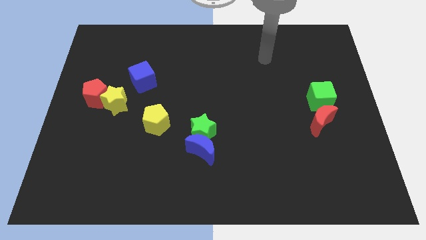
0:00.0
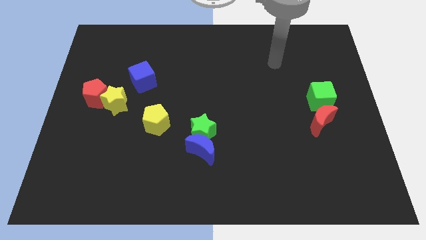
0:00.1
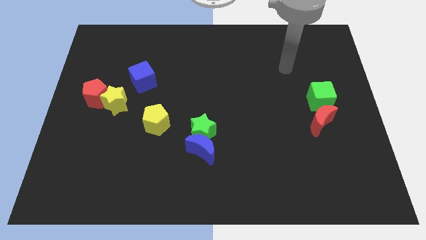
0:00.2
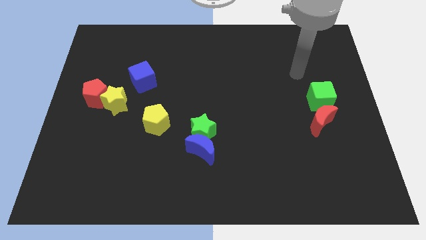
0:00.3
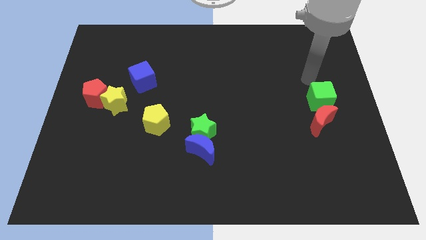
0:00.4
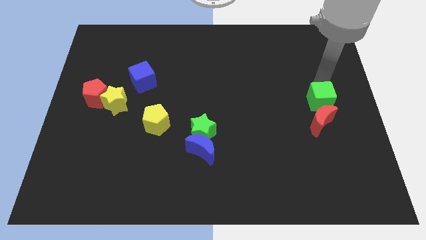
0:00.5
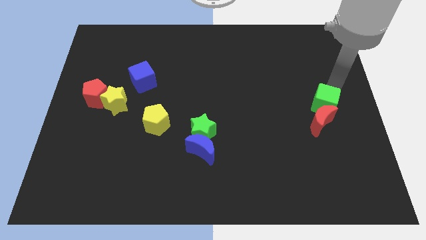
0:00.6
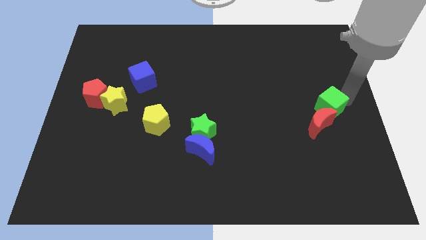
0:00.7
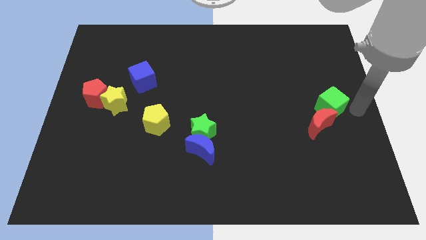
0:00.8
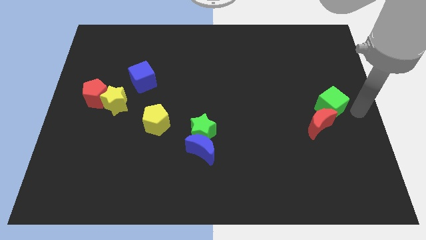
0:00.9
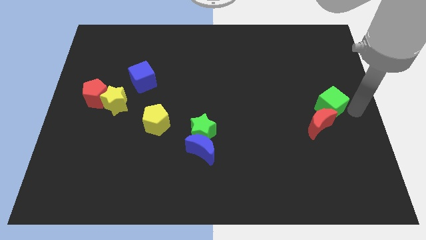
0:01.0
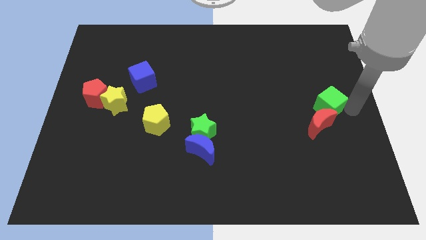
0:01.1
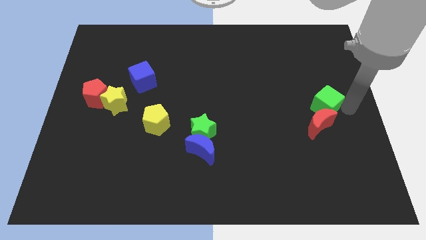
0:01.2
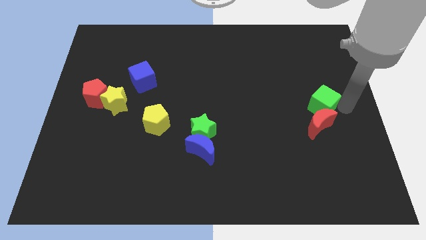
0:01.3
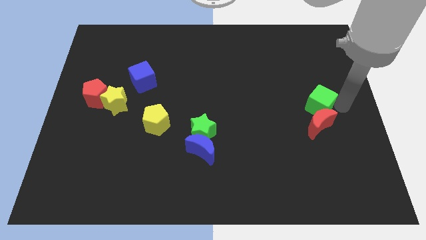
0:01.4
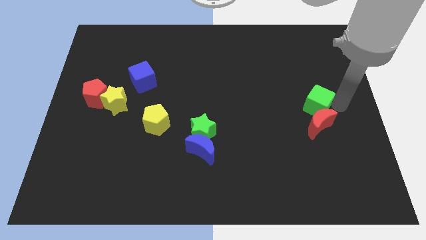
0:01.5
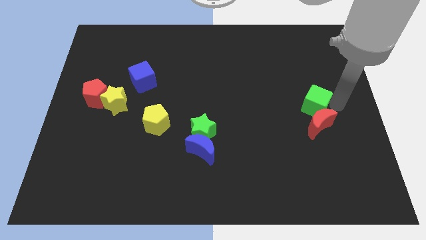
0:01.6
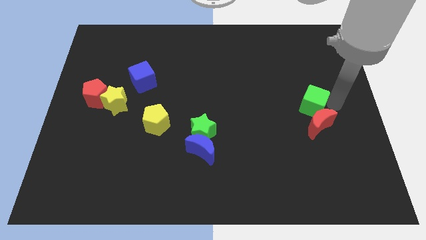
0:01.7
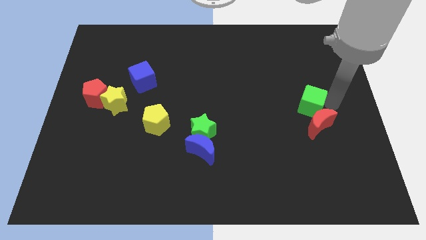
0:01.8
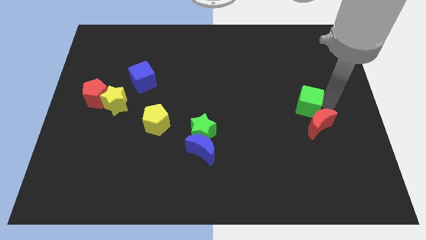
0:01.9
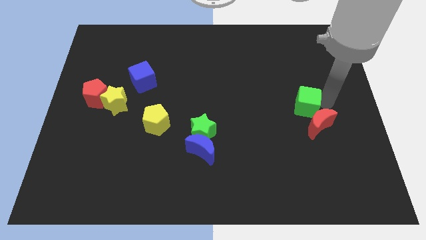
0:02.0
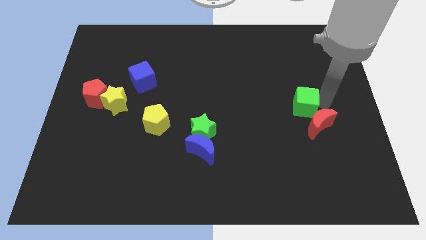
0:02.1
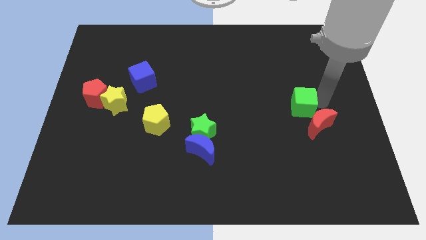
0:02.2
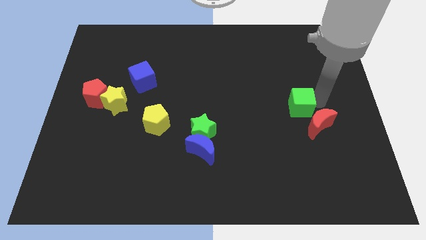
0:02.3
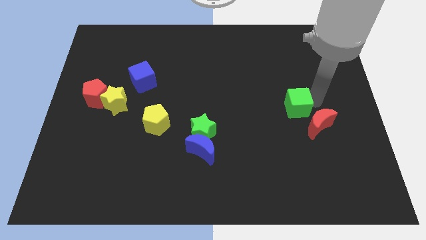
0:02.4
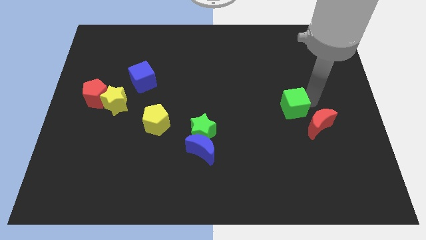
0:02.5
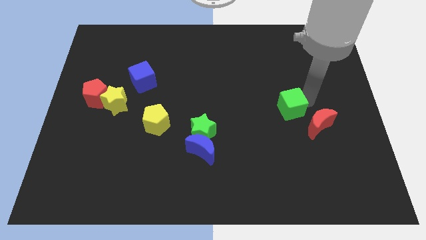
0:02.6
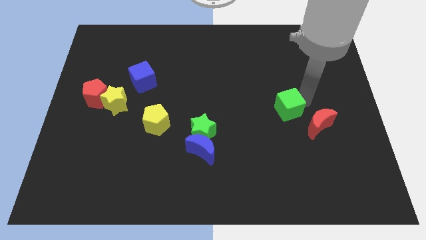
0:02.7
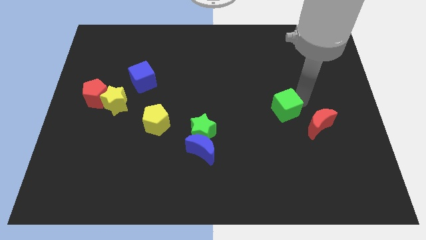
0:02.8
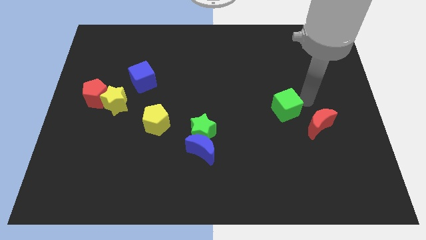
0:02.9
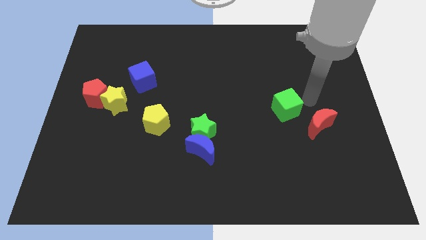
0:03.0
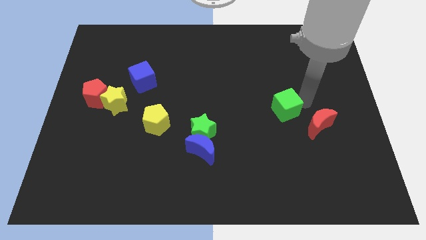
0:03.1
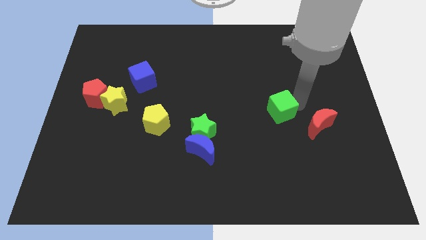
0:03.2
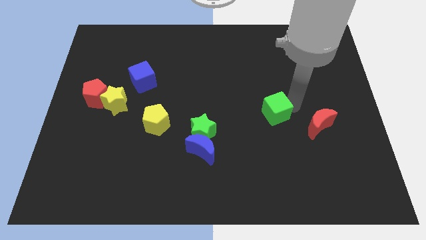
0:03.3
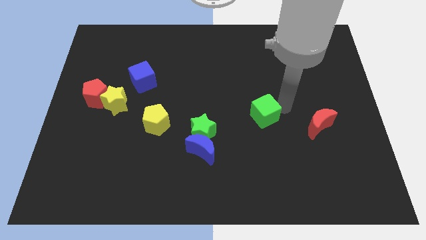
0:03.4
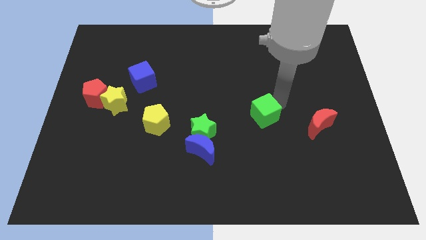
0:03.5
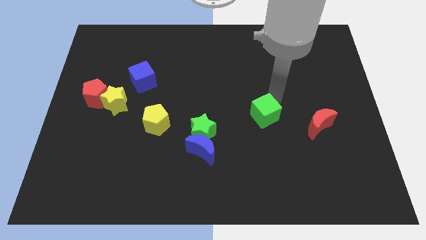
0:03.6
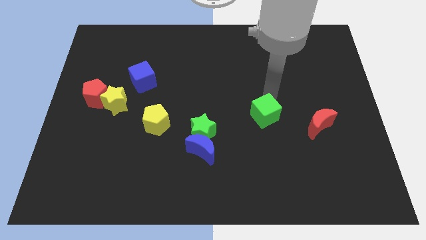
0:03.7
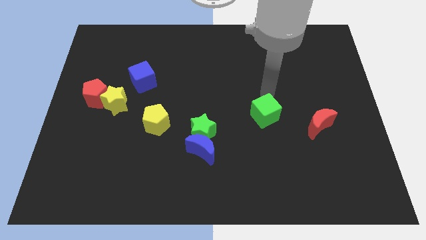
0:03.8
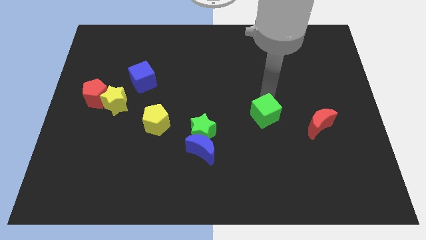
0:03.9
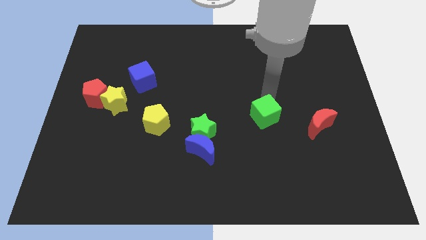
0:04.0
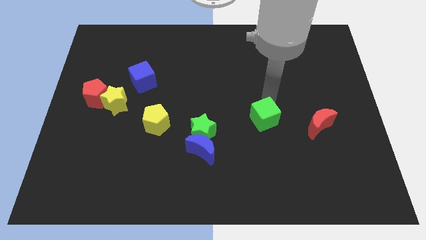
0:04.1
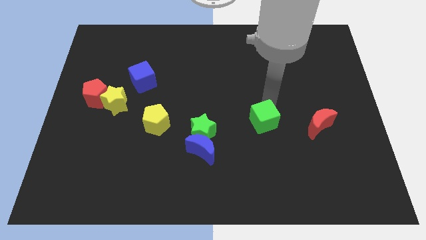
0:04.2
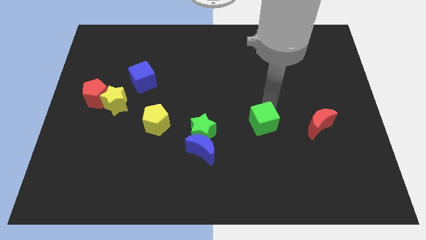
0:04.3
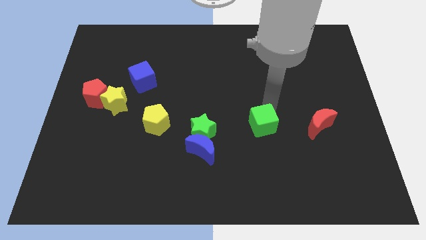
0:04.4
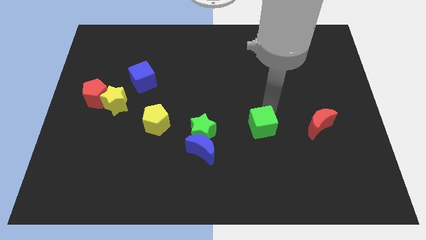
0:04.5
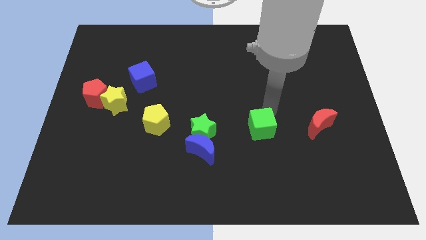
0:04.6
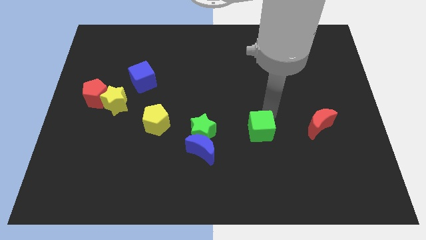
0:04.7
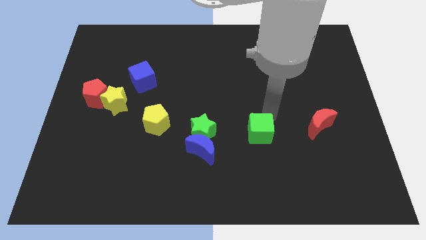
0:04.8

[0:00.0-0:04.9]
push the green cube to the right side of the blue moon

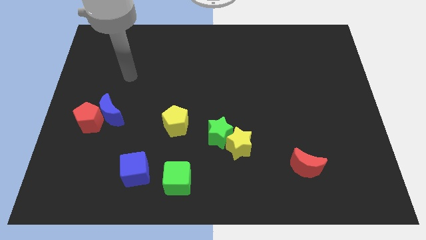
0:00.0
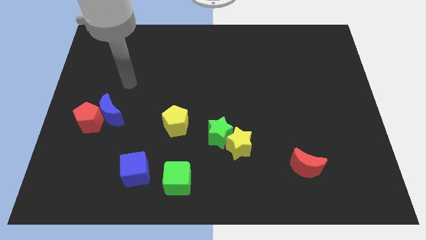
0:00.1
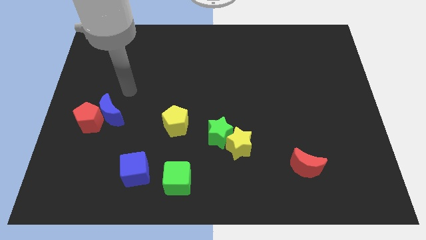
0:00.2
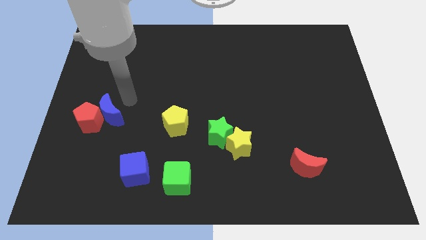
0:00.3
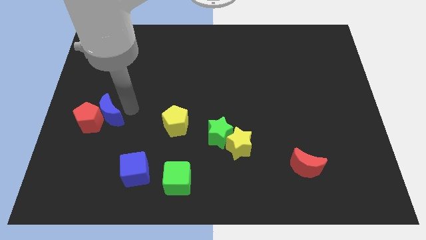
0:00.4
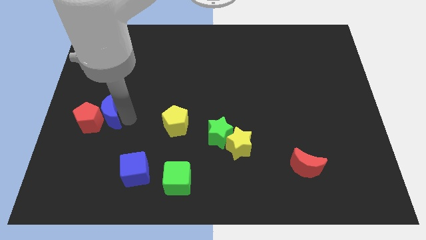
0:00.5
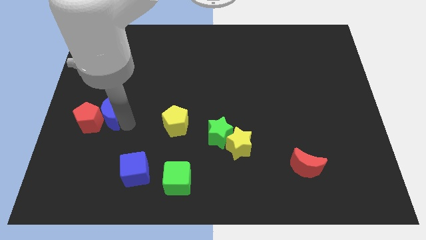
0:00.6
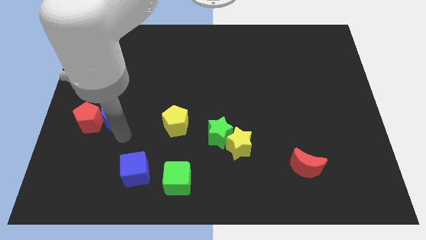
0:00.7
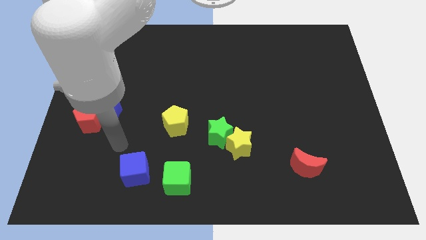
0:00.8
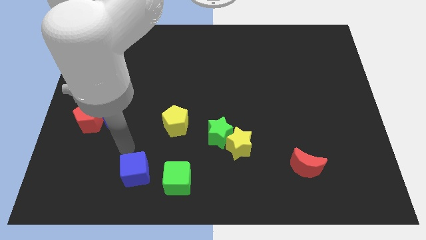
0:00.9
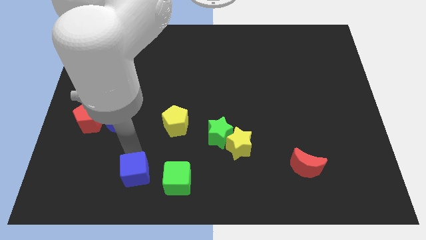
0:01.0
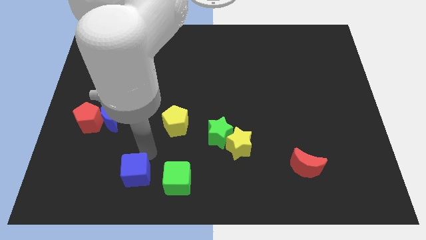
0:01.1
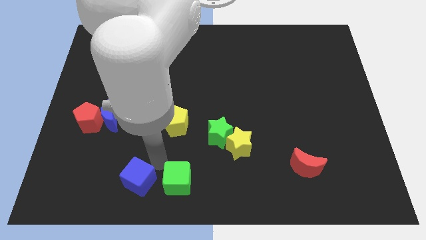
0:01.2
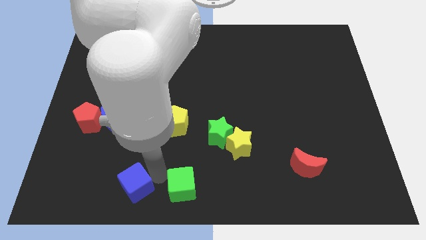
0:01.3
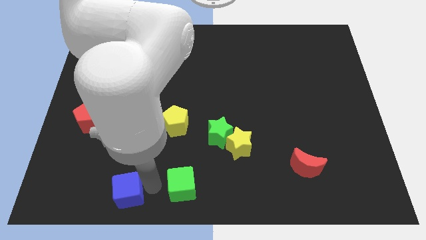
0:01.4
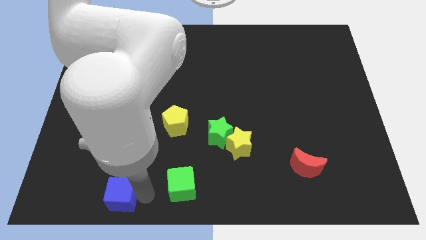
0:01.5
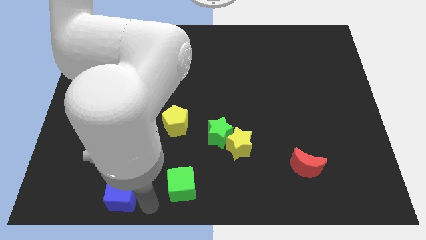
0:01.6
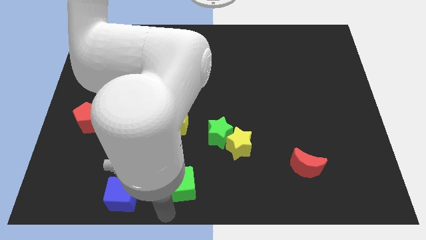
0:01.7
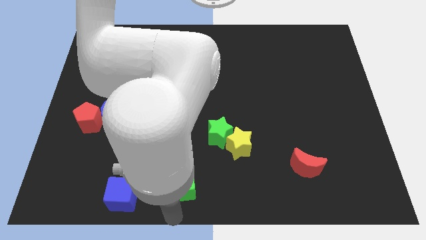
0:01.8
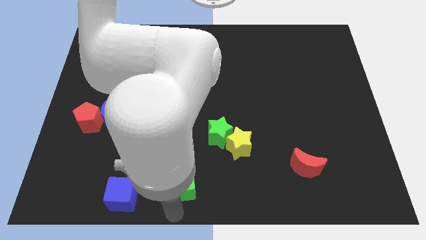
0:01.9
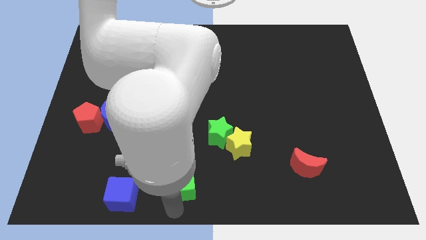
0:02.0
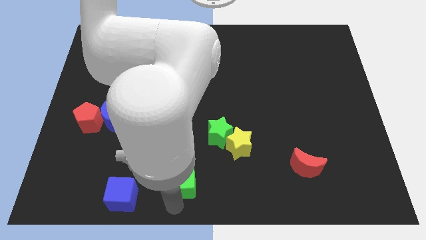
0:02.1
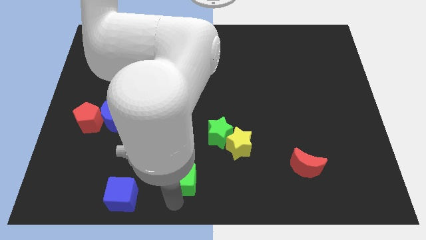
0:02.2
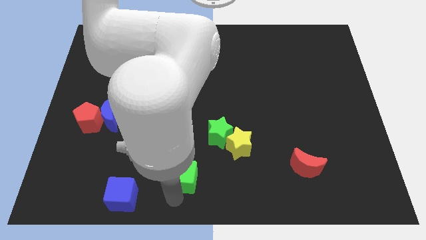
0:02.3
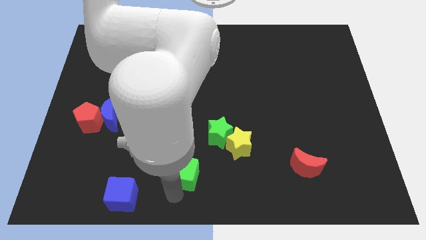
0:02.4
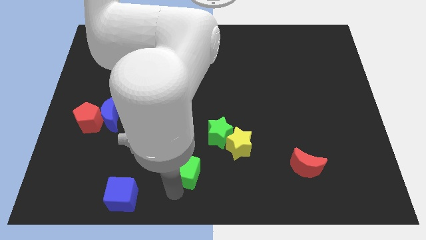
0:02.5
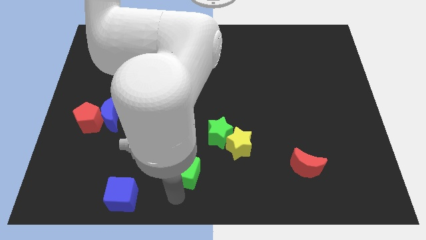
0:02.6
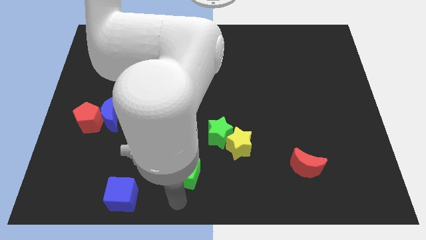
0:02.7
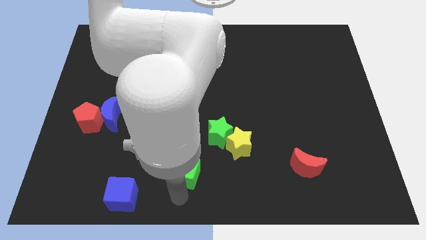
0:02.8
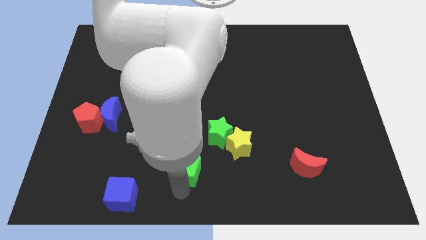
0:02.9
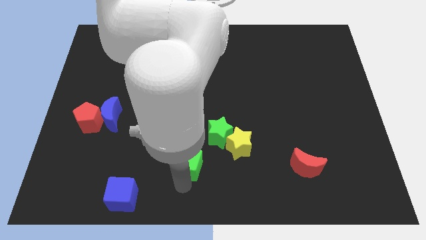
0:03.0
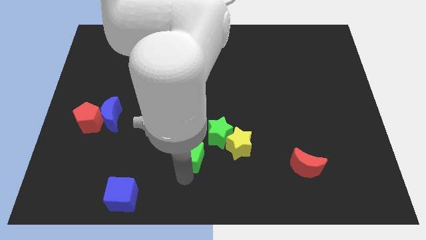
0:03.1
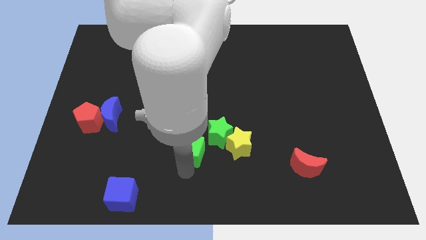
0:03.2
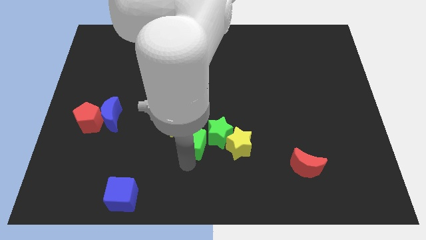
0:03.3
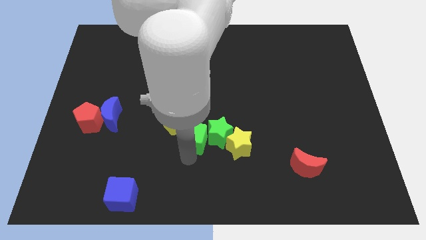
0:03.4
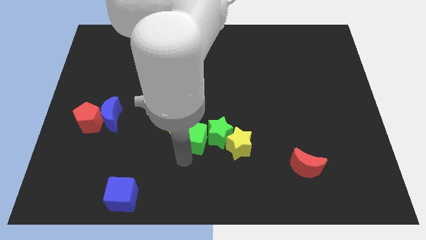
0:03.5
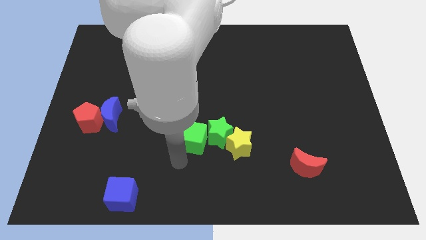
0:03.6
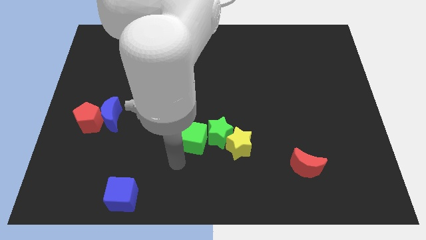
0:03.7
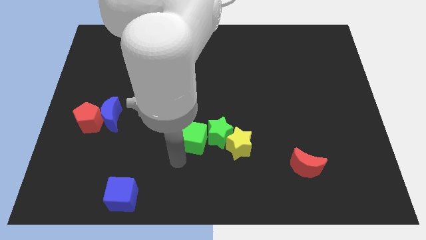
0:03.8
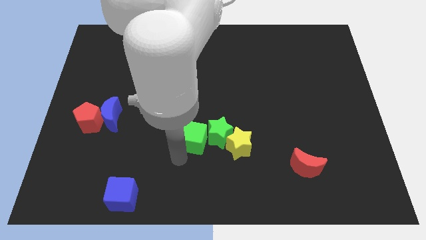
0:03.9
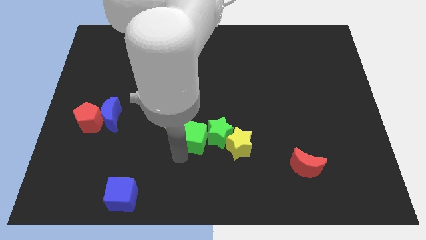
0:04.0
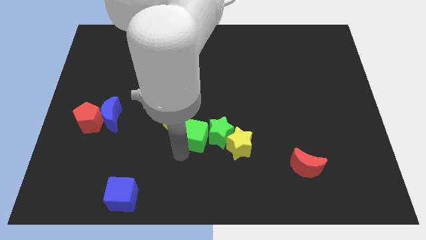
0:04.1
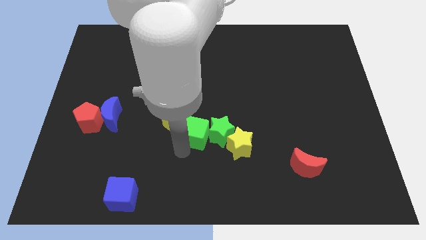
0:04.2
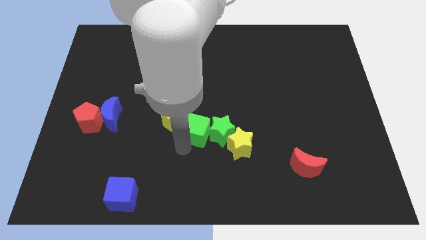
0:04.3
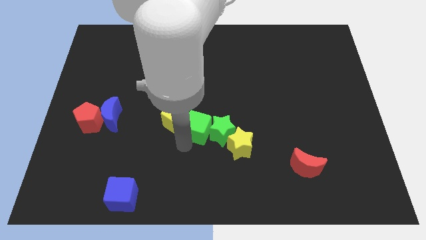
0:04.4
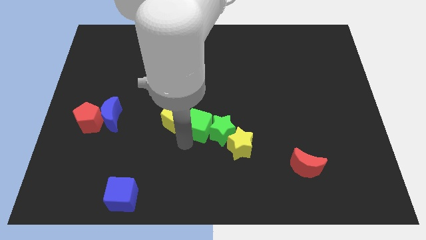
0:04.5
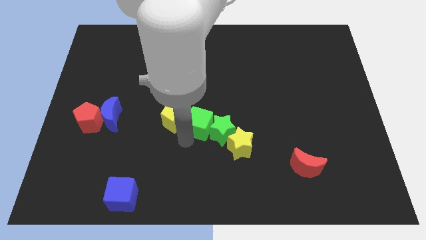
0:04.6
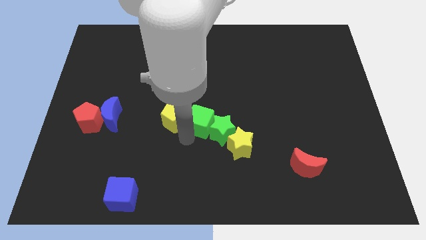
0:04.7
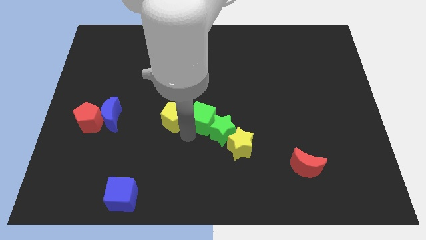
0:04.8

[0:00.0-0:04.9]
put the green cube to the top of the green star
